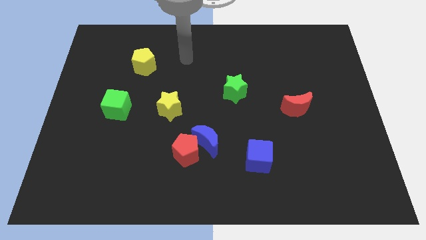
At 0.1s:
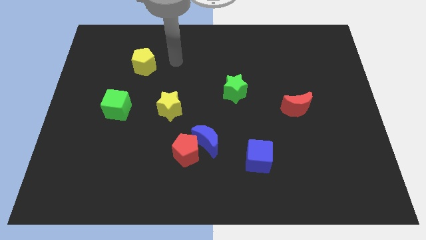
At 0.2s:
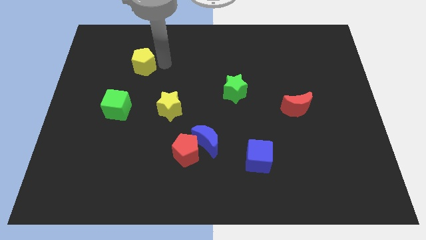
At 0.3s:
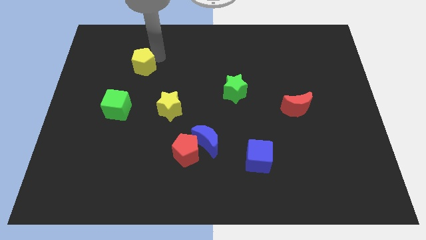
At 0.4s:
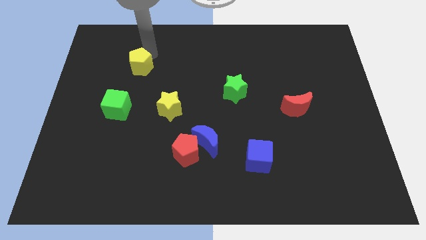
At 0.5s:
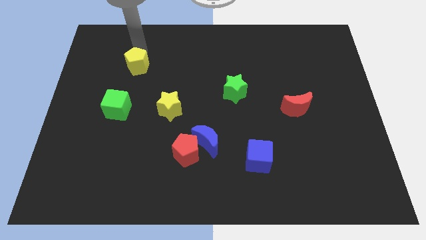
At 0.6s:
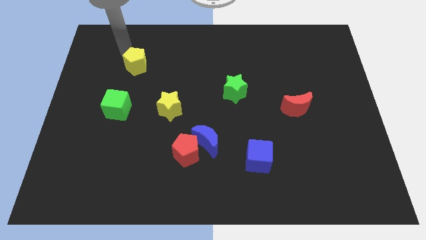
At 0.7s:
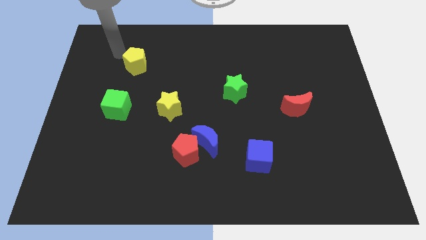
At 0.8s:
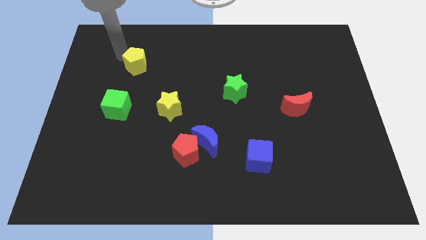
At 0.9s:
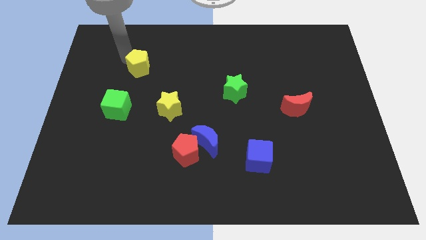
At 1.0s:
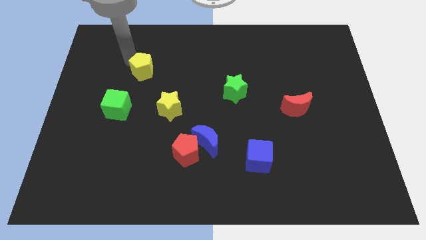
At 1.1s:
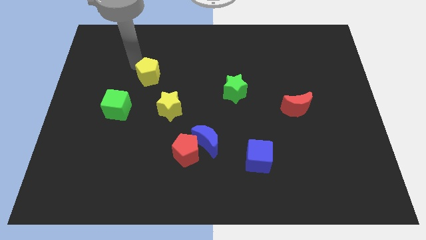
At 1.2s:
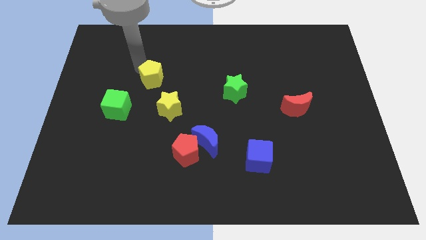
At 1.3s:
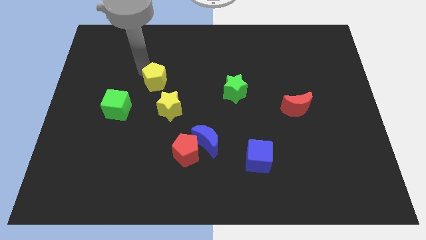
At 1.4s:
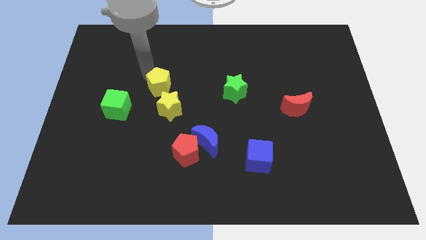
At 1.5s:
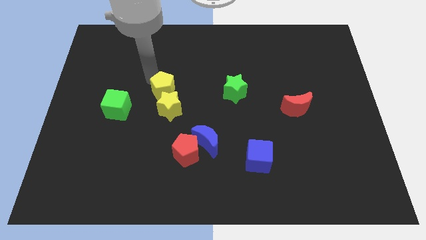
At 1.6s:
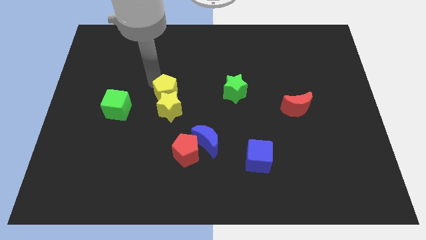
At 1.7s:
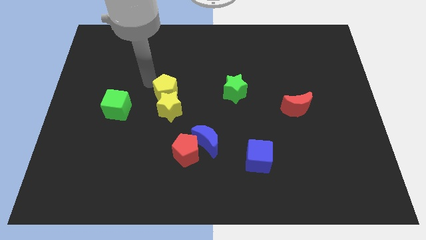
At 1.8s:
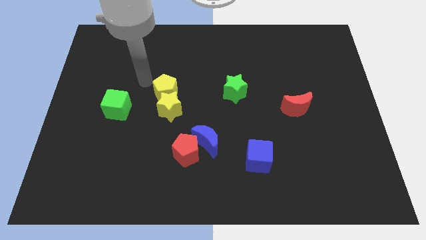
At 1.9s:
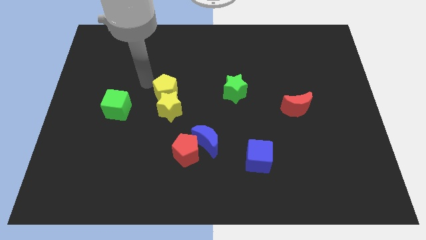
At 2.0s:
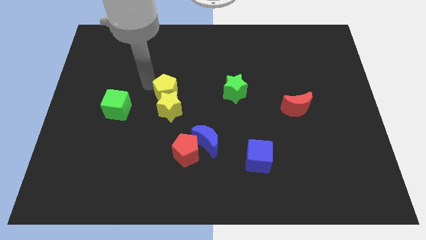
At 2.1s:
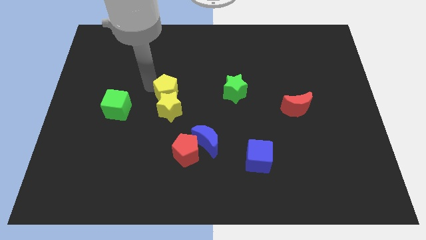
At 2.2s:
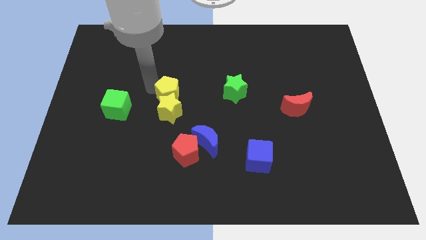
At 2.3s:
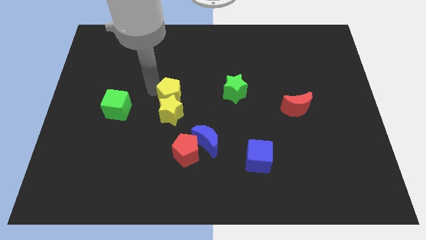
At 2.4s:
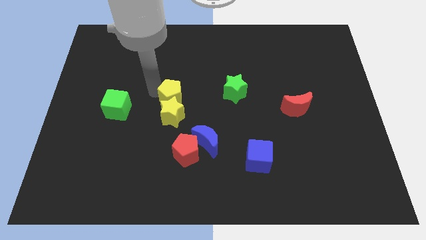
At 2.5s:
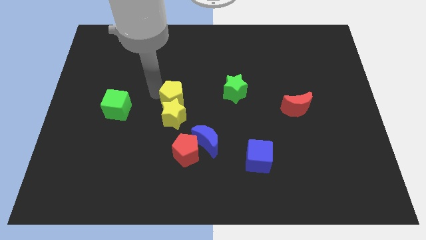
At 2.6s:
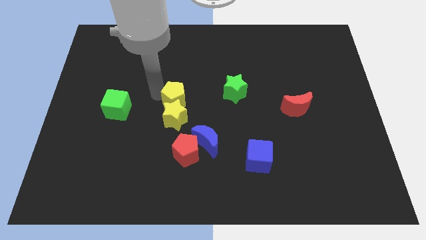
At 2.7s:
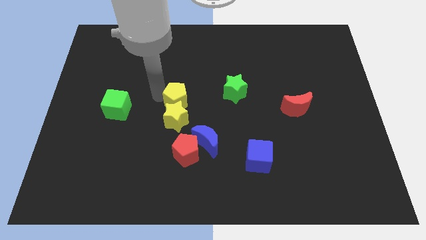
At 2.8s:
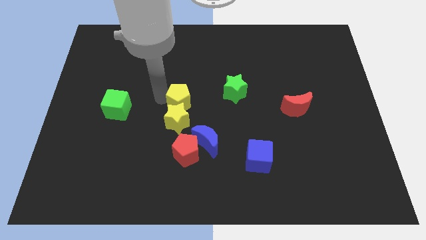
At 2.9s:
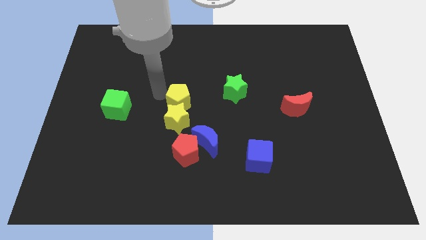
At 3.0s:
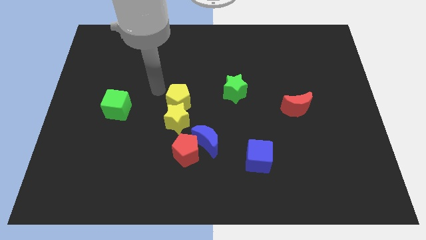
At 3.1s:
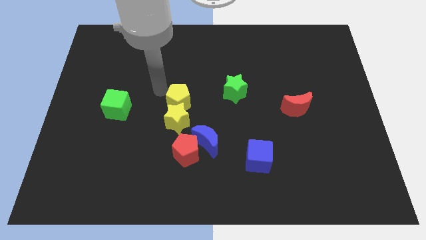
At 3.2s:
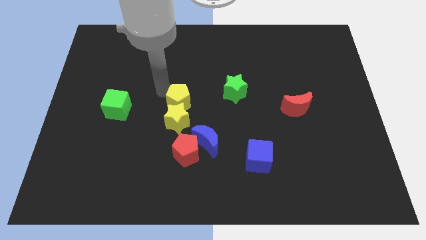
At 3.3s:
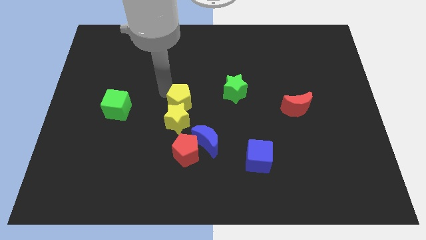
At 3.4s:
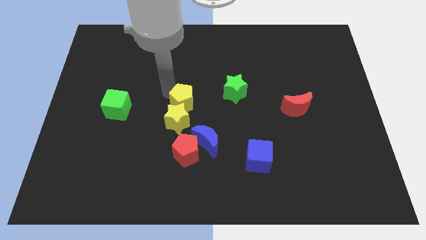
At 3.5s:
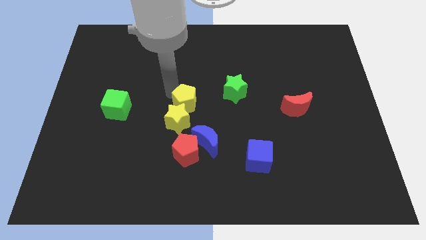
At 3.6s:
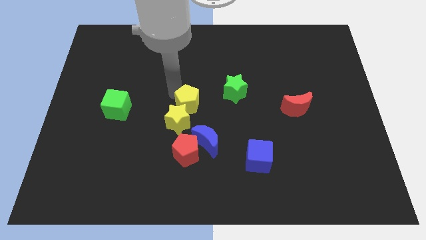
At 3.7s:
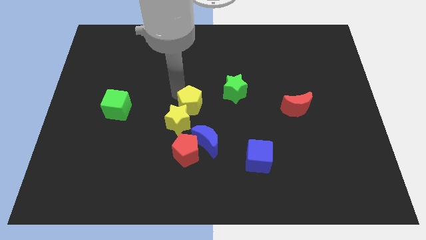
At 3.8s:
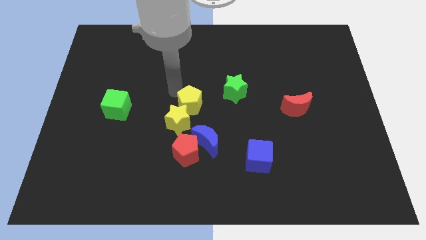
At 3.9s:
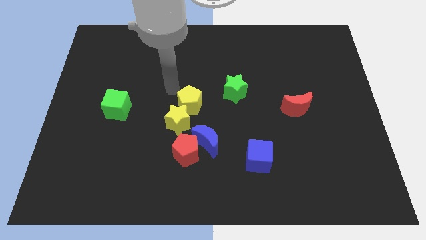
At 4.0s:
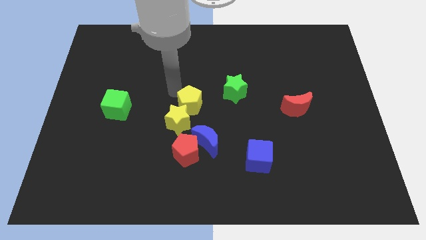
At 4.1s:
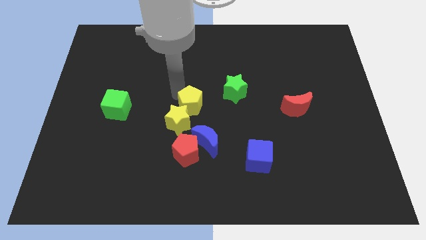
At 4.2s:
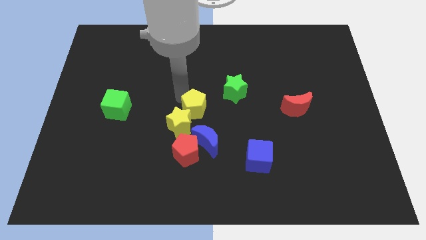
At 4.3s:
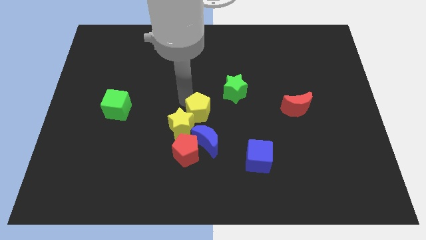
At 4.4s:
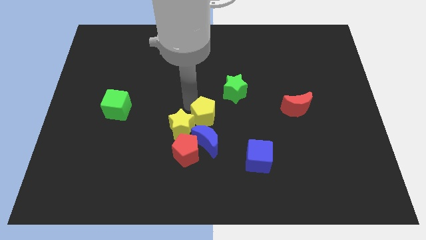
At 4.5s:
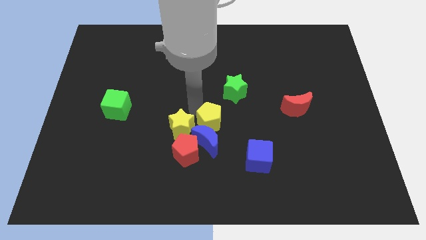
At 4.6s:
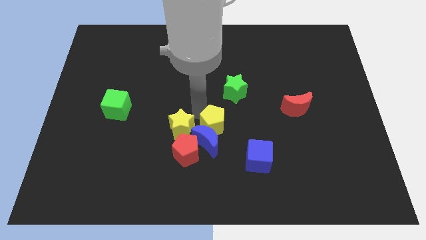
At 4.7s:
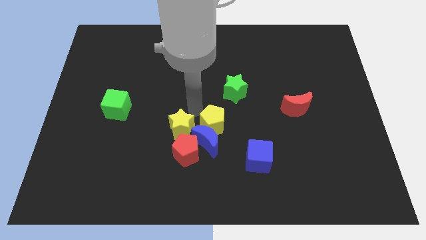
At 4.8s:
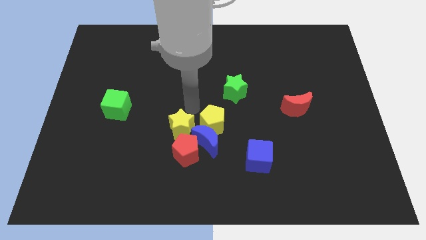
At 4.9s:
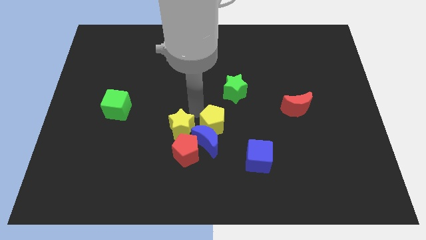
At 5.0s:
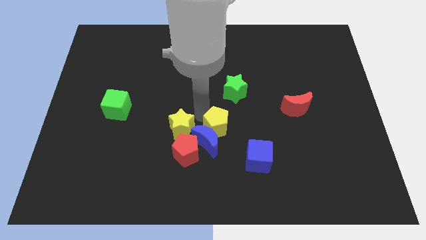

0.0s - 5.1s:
slide the yellow pentagon diagonally up and to the left of the blue cube

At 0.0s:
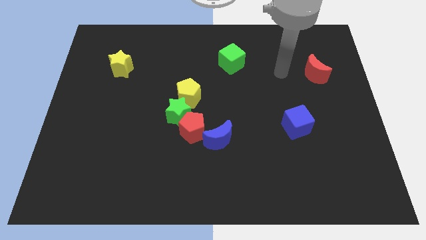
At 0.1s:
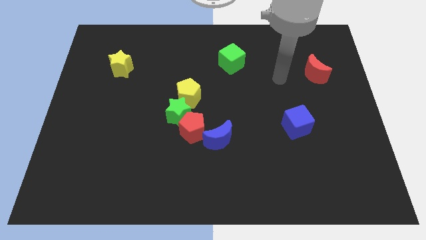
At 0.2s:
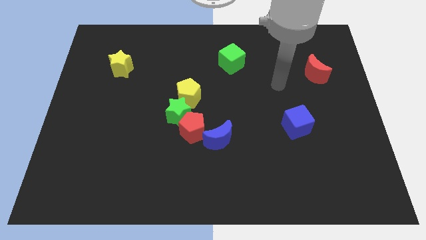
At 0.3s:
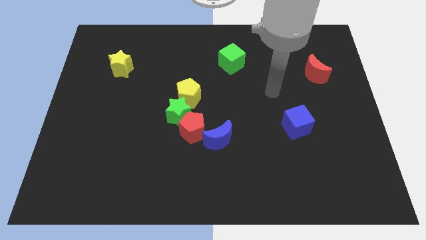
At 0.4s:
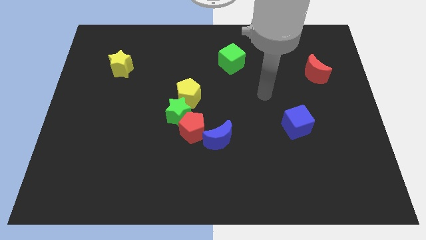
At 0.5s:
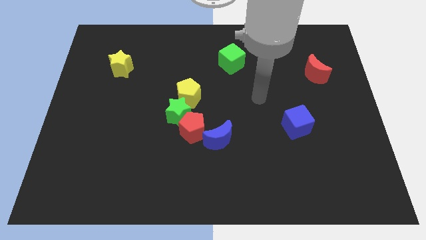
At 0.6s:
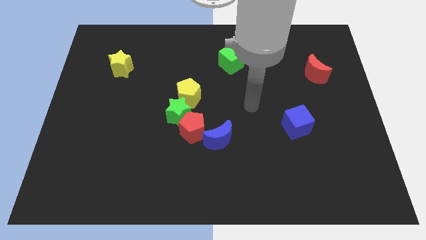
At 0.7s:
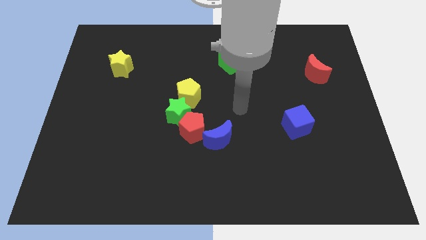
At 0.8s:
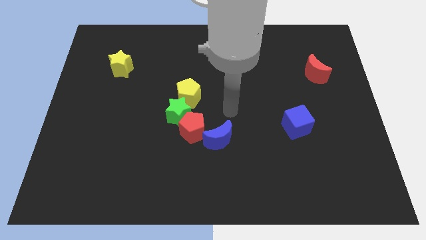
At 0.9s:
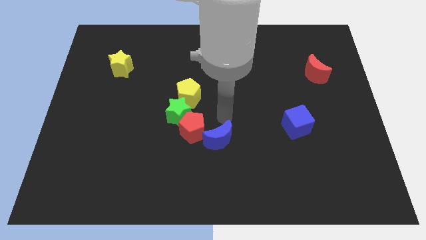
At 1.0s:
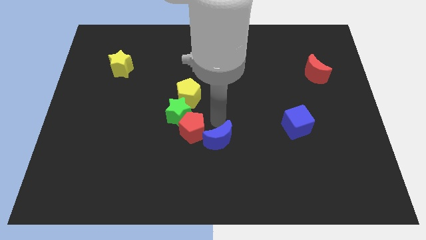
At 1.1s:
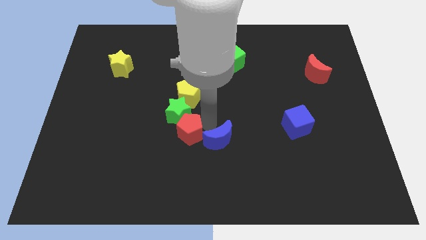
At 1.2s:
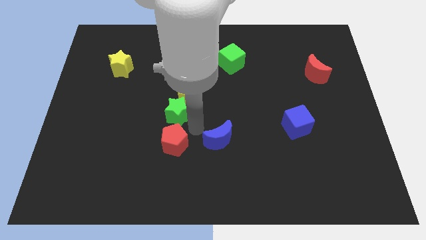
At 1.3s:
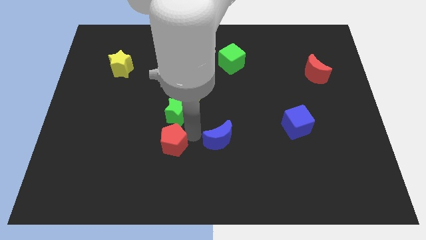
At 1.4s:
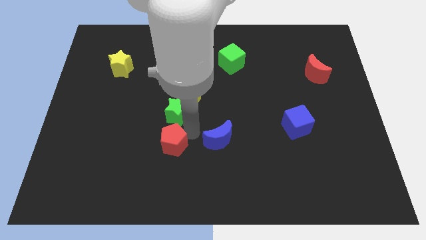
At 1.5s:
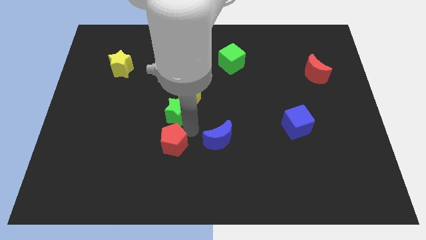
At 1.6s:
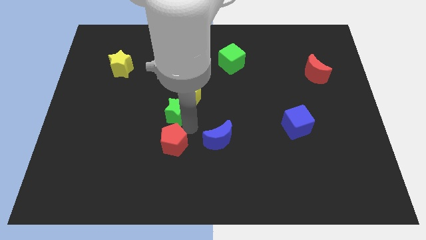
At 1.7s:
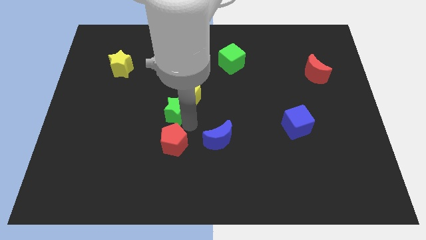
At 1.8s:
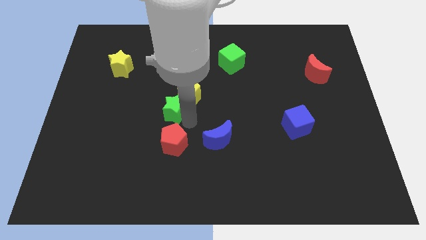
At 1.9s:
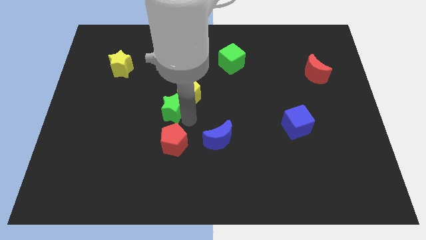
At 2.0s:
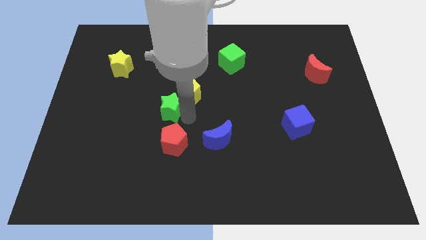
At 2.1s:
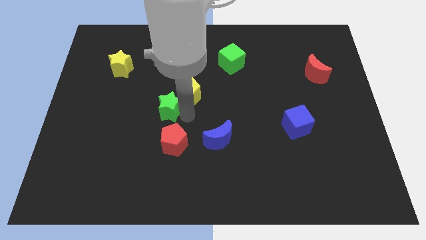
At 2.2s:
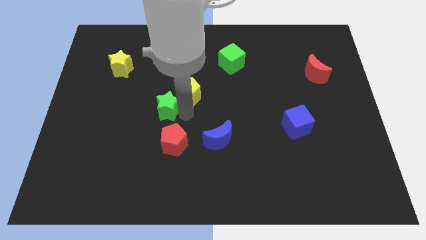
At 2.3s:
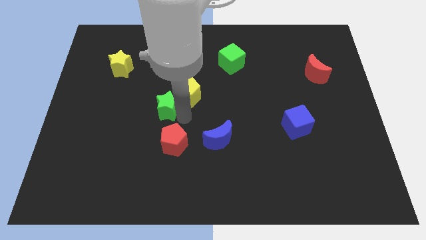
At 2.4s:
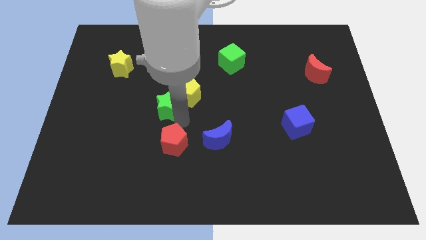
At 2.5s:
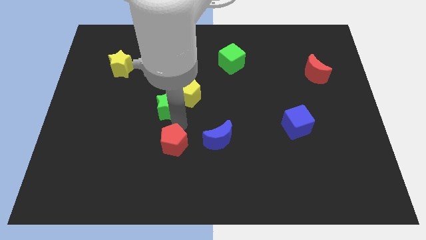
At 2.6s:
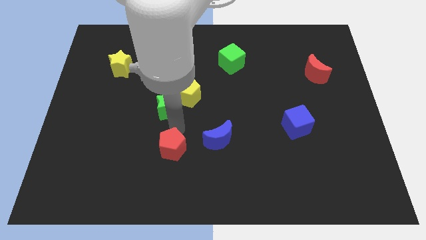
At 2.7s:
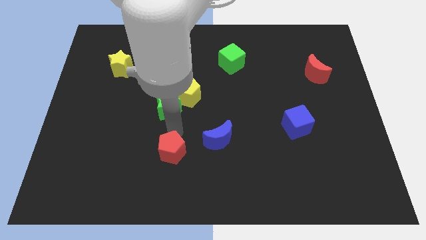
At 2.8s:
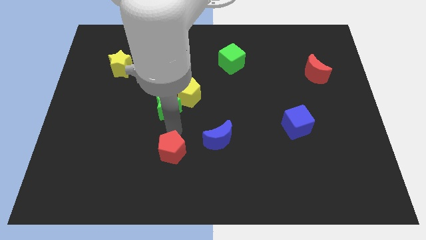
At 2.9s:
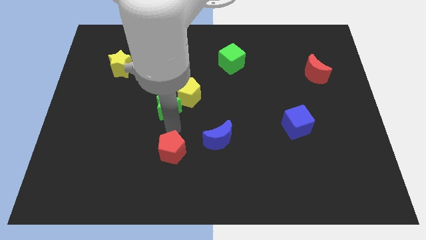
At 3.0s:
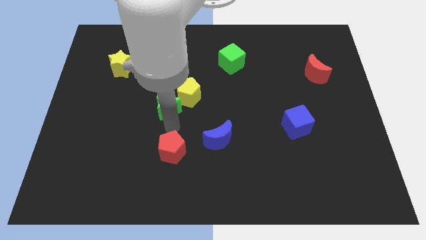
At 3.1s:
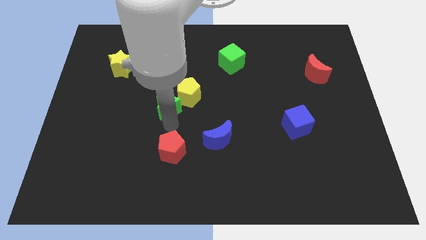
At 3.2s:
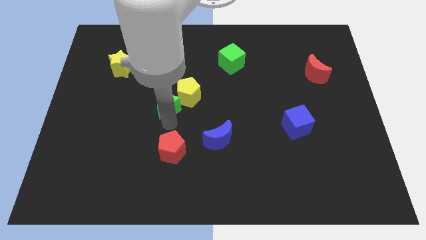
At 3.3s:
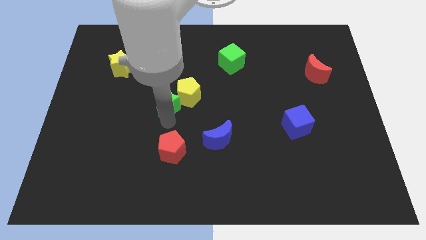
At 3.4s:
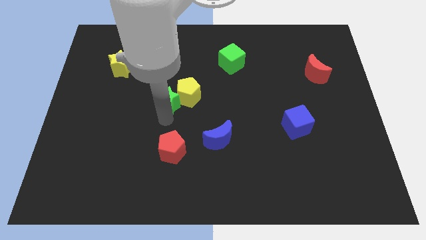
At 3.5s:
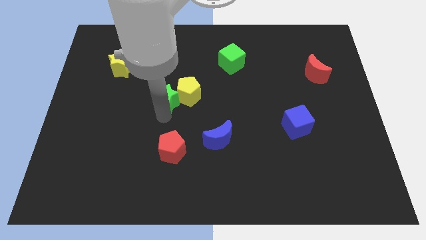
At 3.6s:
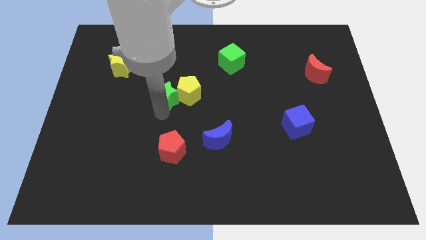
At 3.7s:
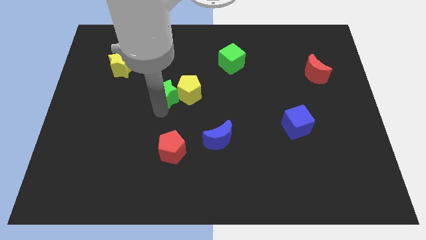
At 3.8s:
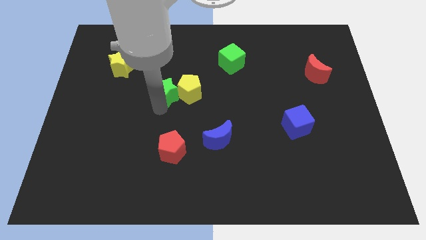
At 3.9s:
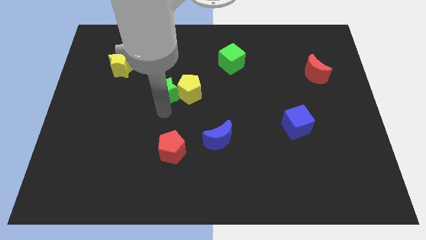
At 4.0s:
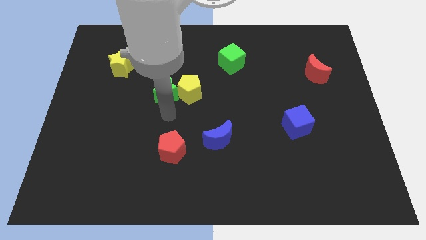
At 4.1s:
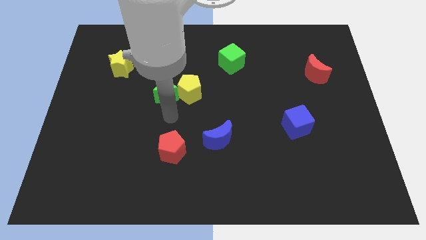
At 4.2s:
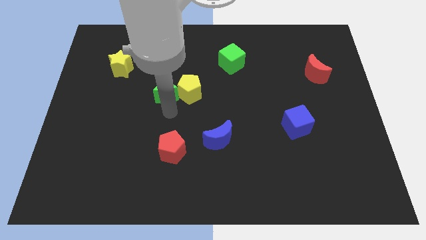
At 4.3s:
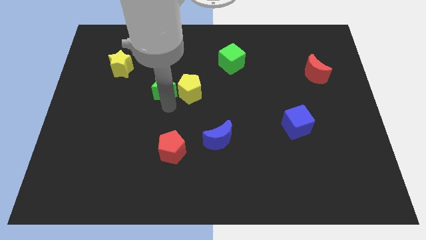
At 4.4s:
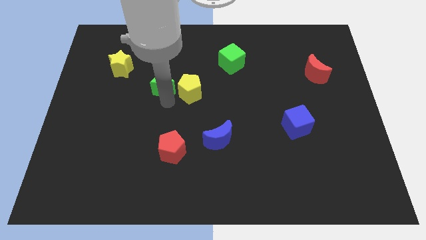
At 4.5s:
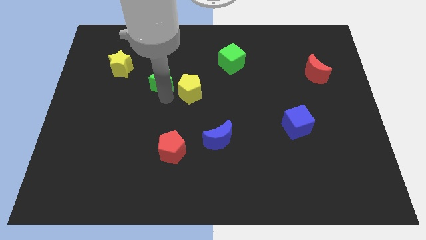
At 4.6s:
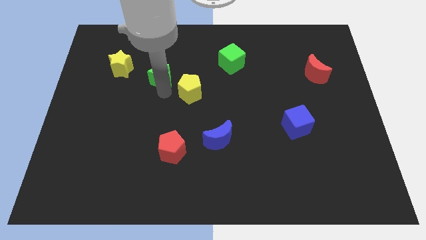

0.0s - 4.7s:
put the green star just right of the yellow star
